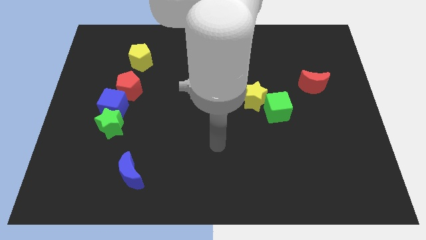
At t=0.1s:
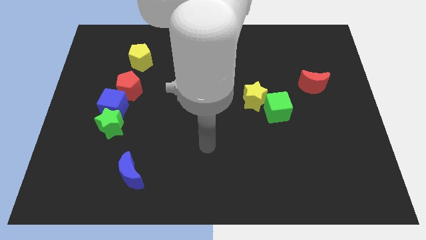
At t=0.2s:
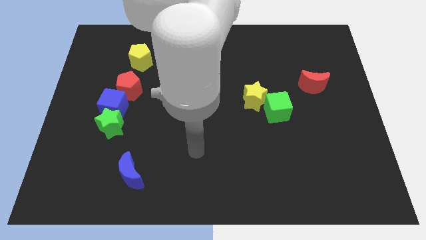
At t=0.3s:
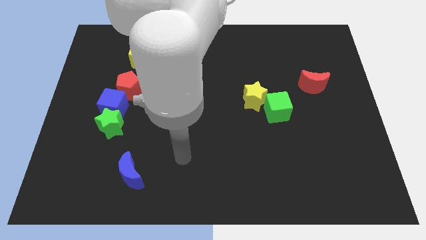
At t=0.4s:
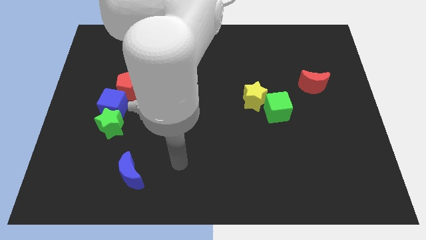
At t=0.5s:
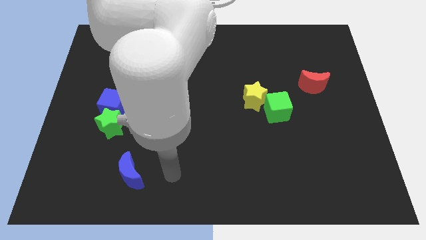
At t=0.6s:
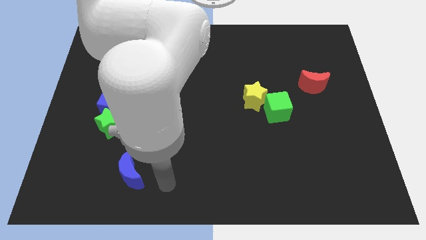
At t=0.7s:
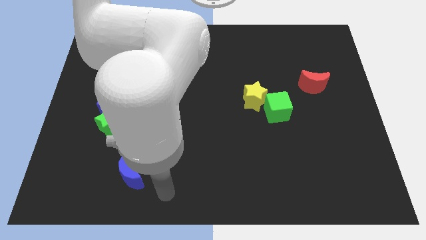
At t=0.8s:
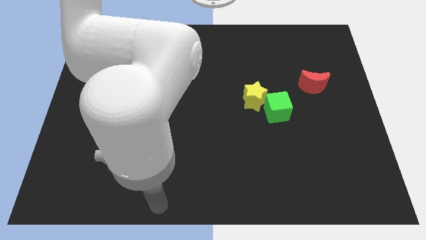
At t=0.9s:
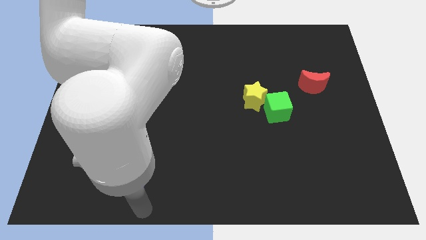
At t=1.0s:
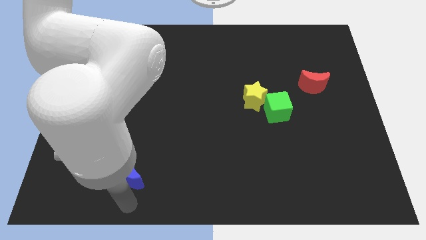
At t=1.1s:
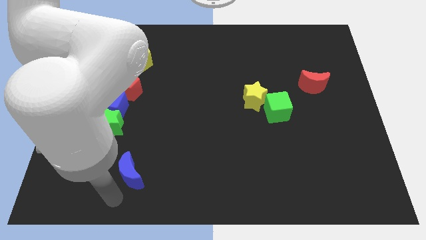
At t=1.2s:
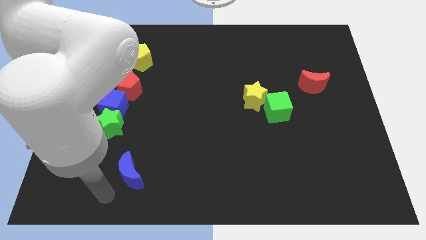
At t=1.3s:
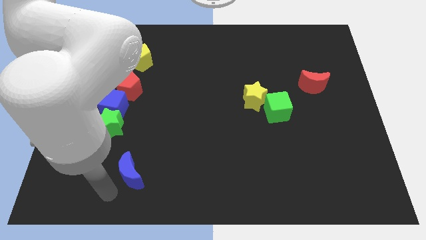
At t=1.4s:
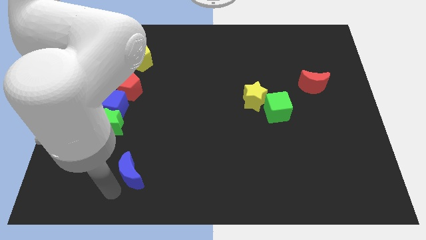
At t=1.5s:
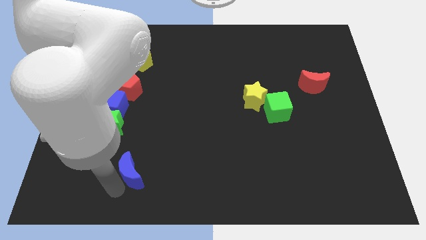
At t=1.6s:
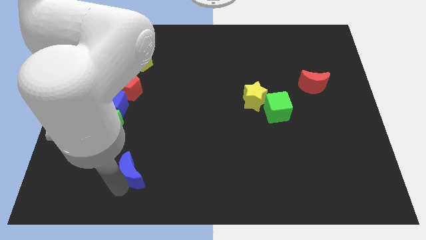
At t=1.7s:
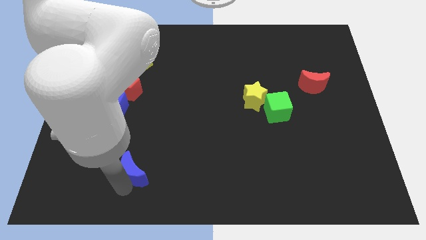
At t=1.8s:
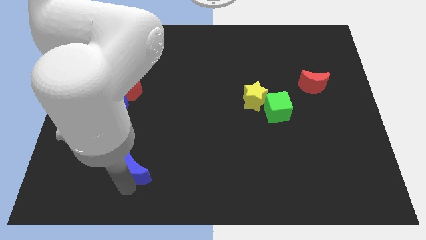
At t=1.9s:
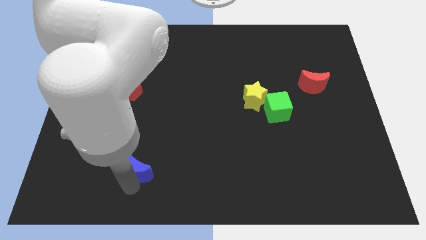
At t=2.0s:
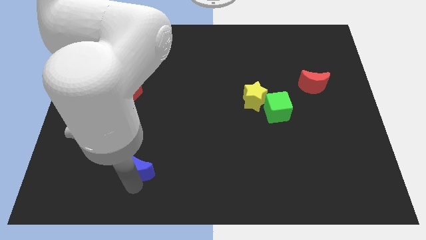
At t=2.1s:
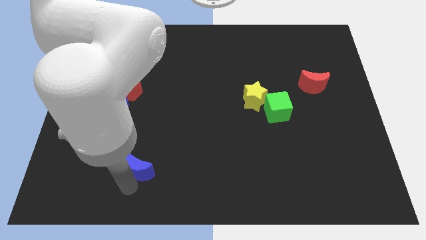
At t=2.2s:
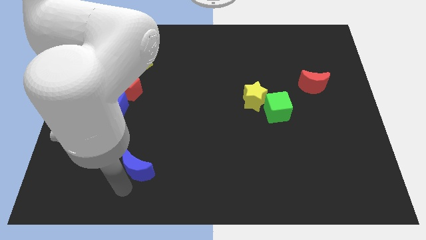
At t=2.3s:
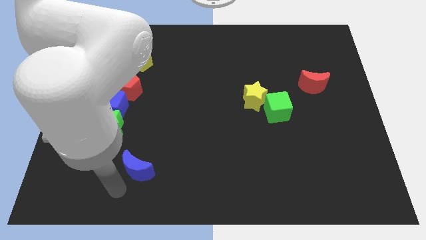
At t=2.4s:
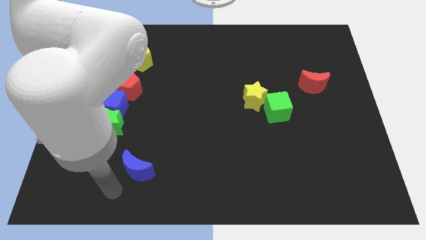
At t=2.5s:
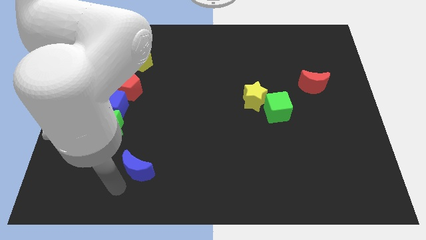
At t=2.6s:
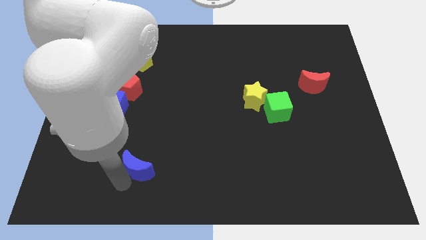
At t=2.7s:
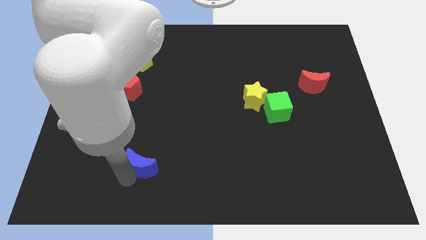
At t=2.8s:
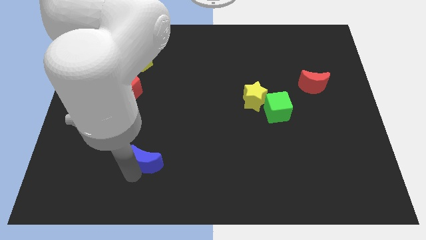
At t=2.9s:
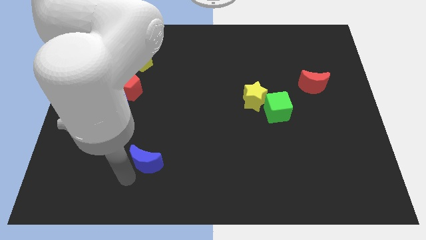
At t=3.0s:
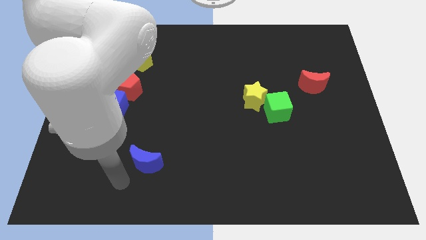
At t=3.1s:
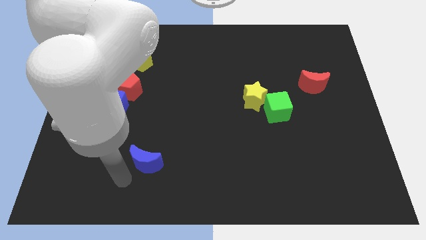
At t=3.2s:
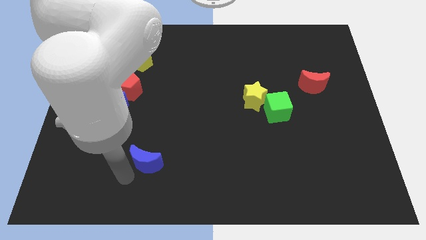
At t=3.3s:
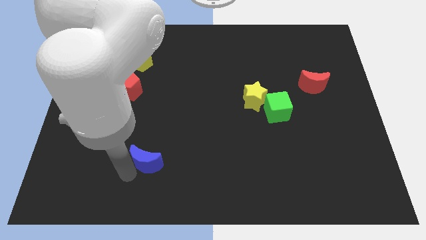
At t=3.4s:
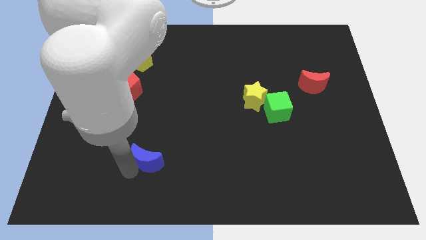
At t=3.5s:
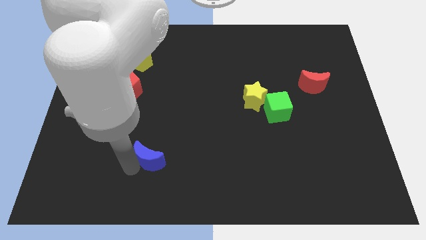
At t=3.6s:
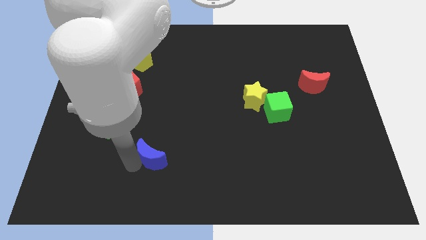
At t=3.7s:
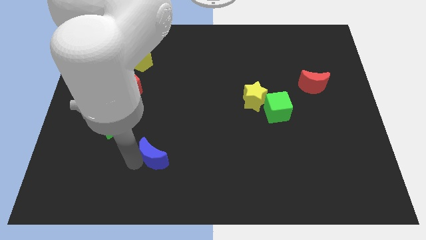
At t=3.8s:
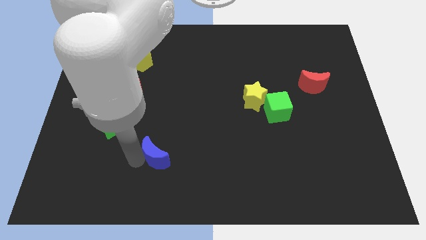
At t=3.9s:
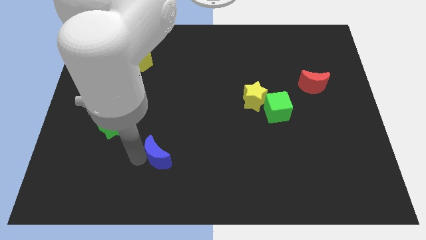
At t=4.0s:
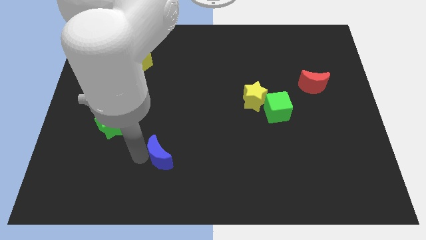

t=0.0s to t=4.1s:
move the blue moon upwards and to the right a little

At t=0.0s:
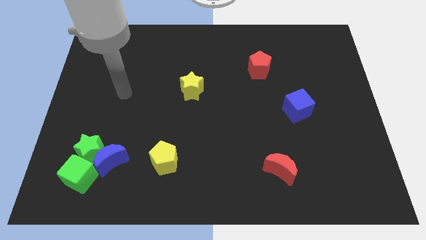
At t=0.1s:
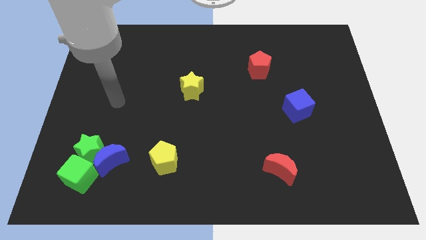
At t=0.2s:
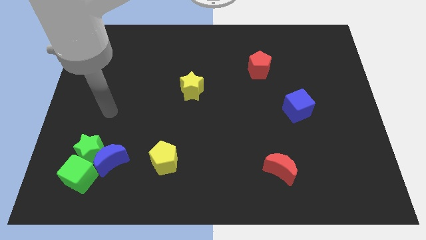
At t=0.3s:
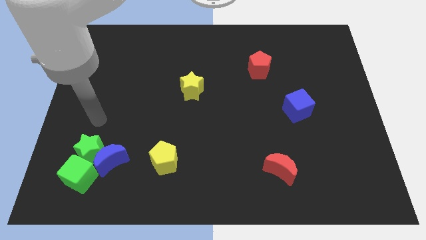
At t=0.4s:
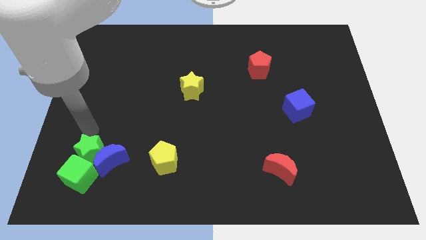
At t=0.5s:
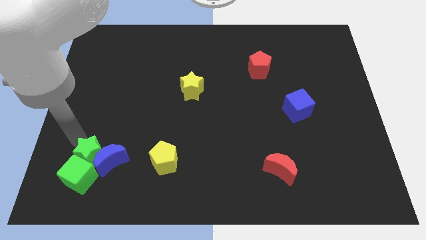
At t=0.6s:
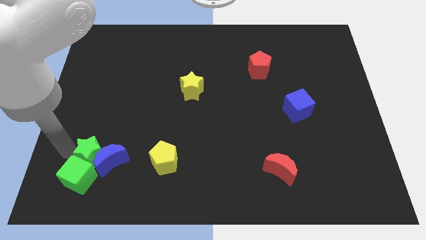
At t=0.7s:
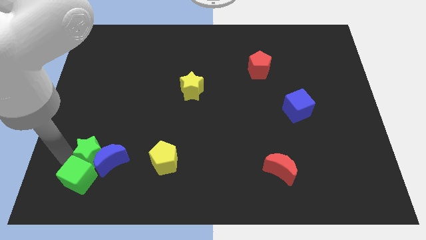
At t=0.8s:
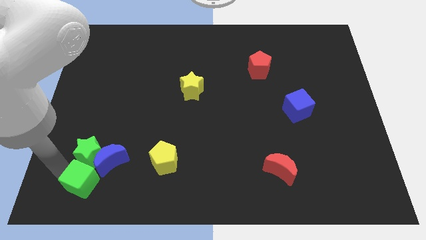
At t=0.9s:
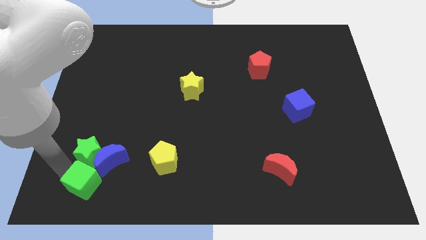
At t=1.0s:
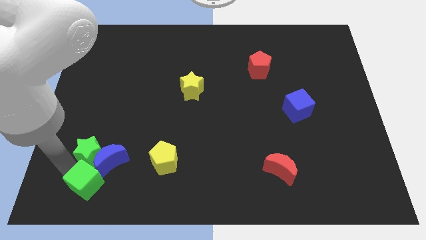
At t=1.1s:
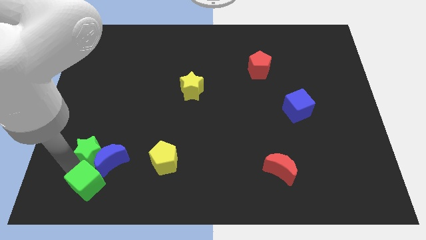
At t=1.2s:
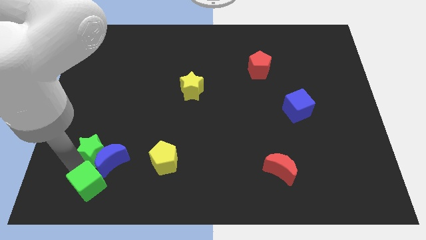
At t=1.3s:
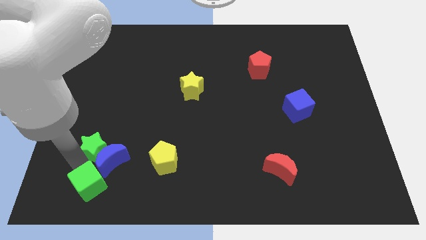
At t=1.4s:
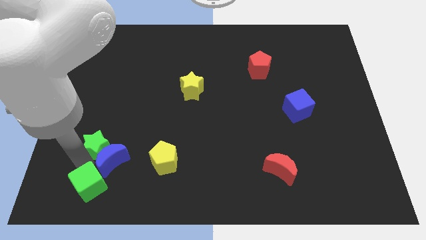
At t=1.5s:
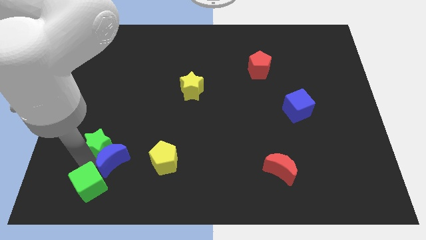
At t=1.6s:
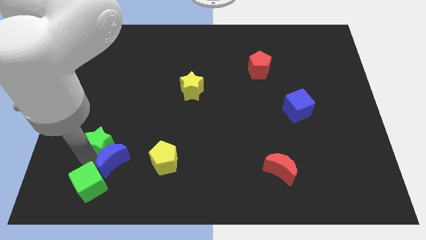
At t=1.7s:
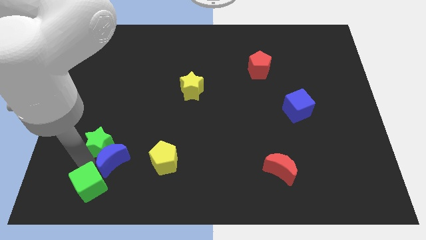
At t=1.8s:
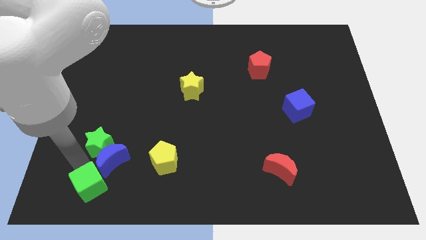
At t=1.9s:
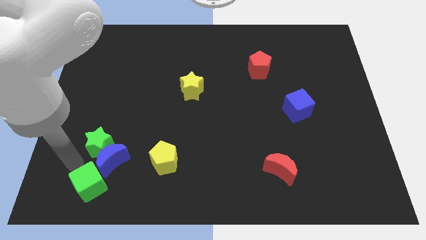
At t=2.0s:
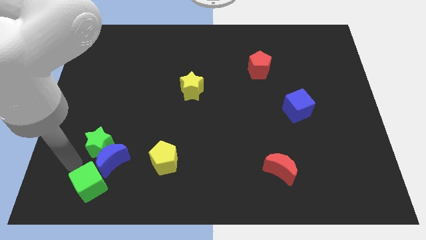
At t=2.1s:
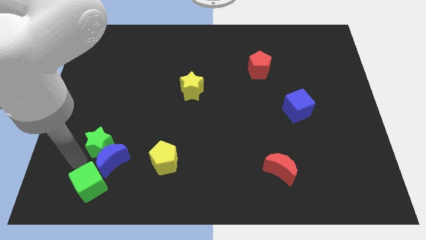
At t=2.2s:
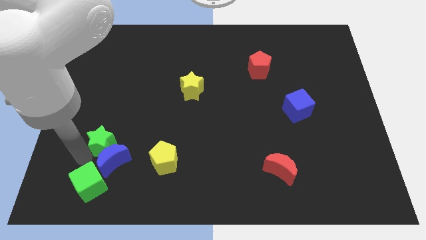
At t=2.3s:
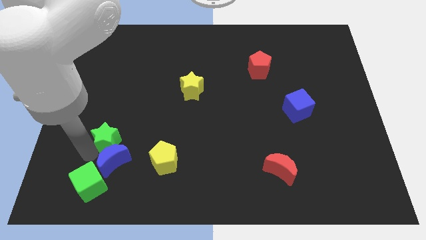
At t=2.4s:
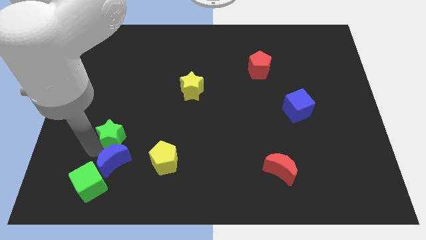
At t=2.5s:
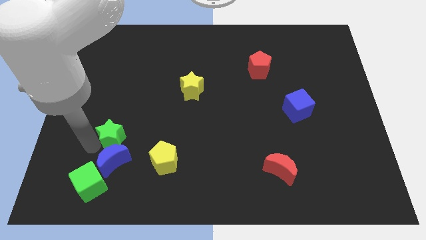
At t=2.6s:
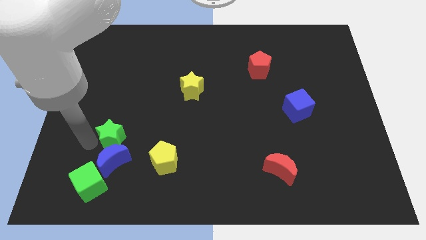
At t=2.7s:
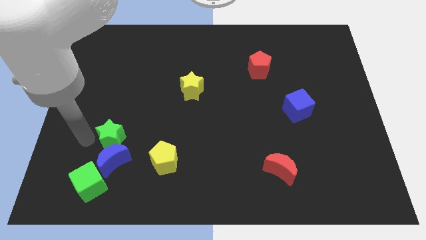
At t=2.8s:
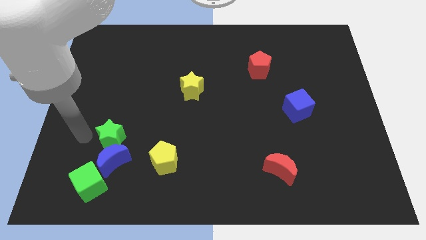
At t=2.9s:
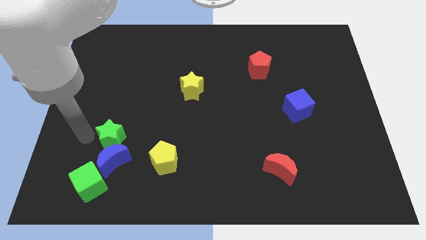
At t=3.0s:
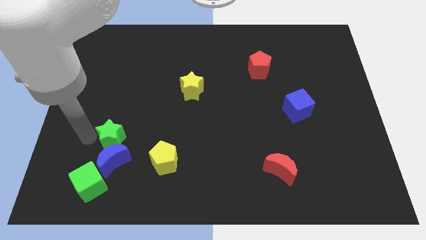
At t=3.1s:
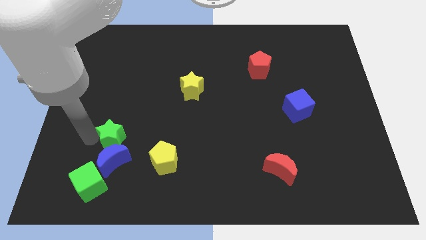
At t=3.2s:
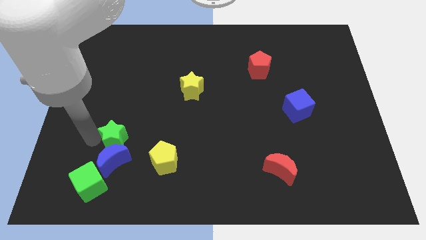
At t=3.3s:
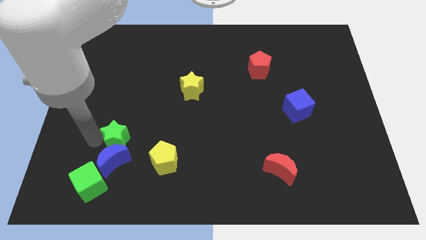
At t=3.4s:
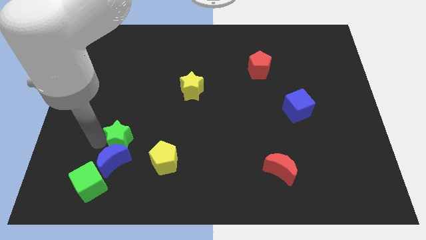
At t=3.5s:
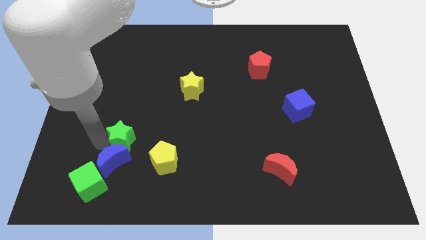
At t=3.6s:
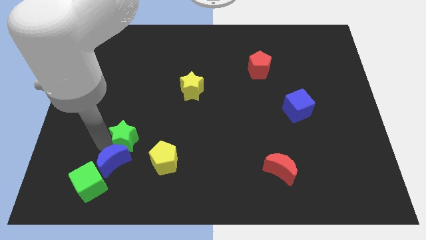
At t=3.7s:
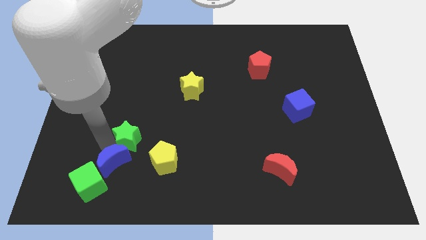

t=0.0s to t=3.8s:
slightly push the green star right

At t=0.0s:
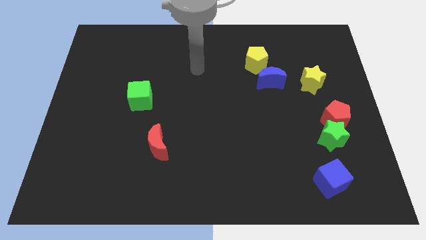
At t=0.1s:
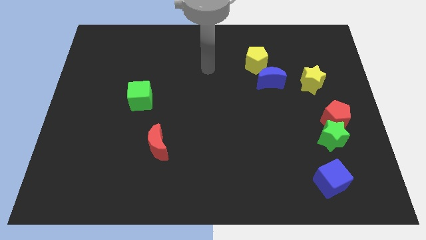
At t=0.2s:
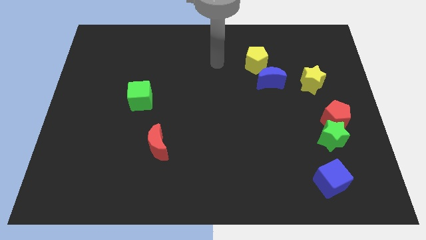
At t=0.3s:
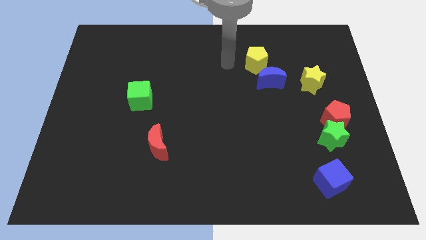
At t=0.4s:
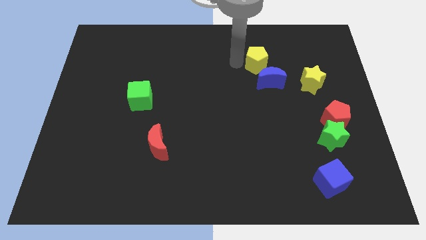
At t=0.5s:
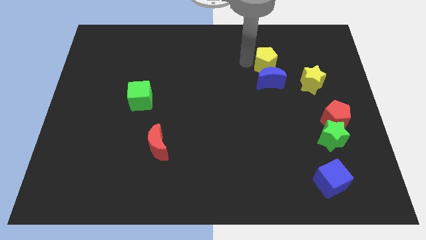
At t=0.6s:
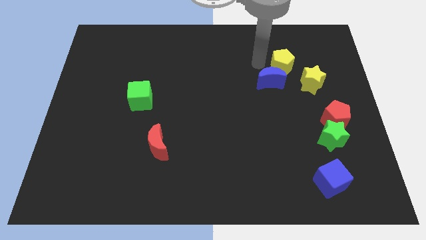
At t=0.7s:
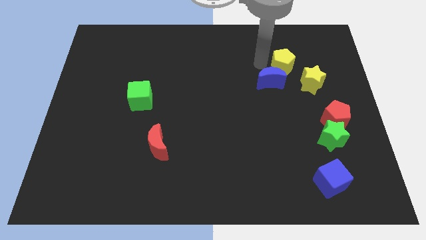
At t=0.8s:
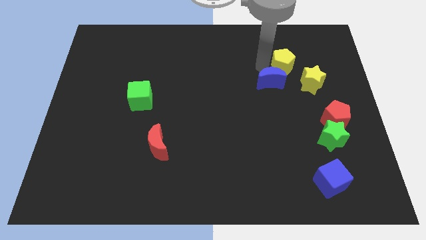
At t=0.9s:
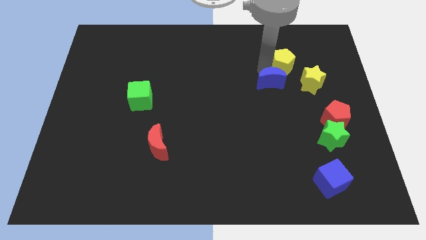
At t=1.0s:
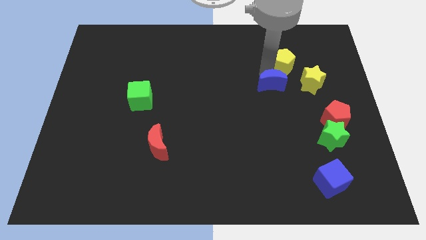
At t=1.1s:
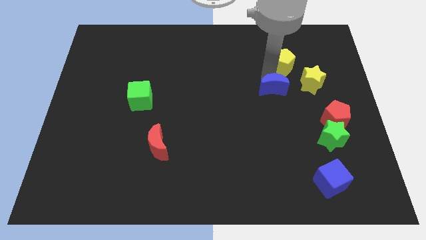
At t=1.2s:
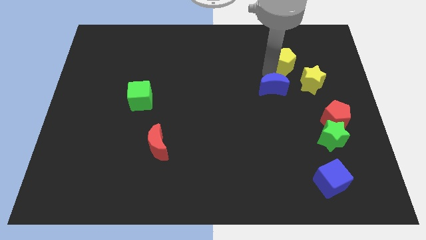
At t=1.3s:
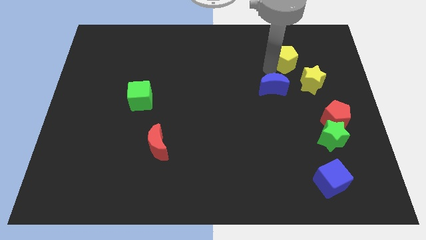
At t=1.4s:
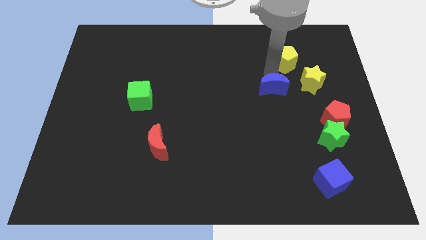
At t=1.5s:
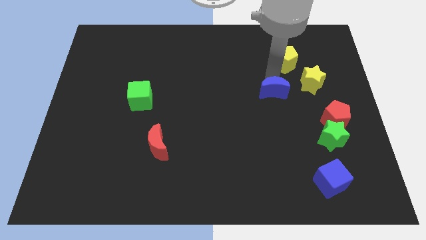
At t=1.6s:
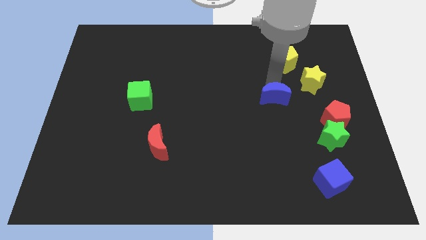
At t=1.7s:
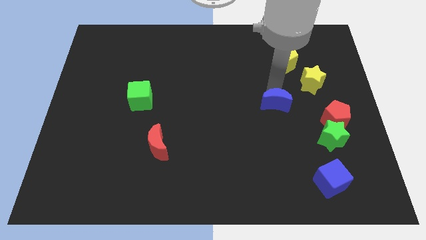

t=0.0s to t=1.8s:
push the blue moon a little bit downwards
